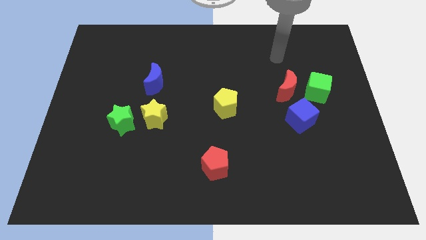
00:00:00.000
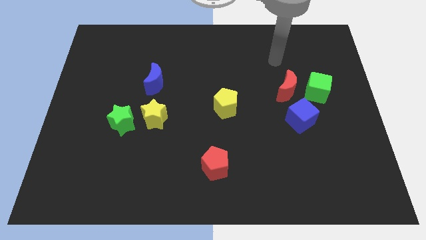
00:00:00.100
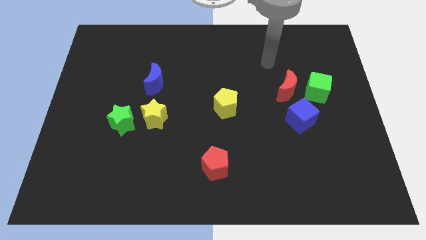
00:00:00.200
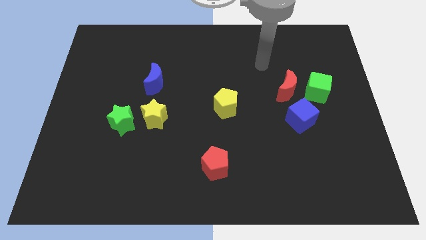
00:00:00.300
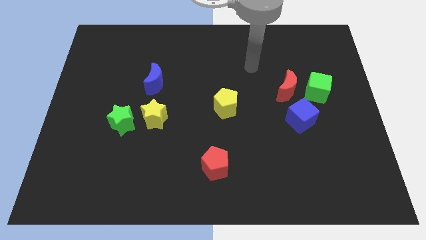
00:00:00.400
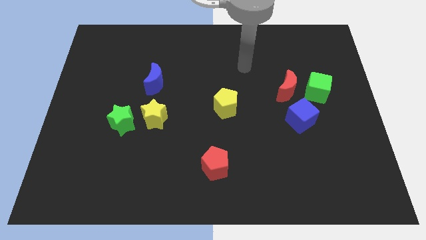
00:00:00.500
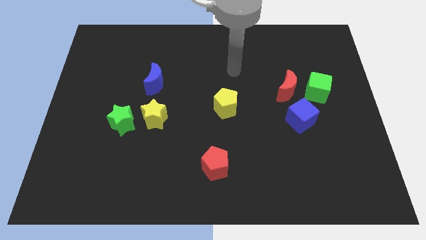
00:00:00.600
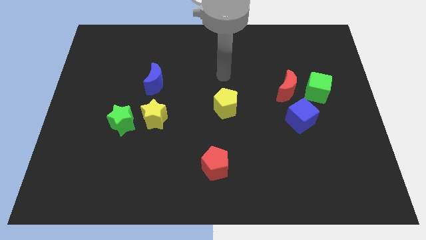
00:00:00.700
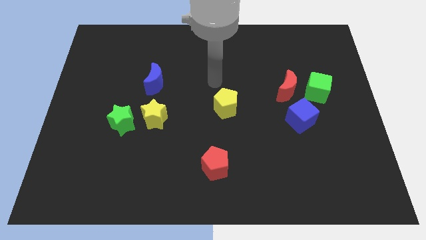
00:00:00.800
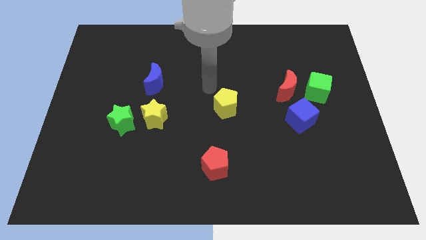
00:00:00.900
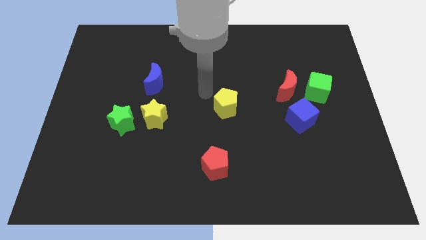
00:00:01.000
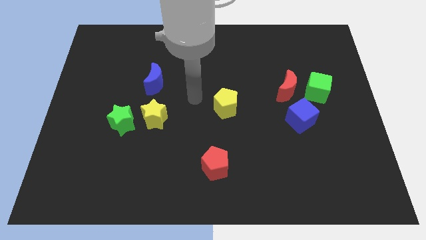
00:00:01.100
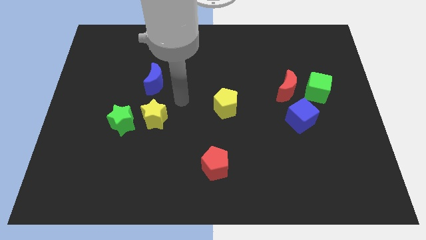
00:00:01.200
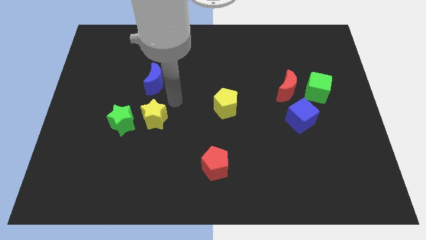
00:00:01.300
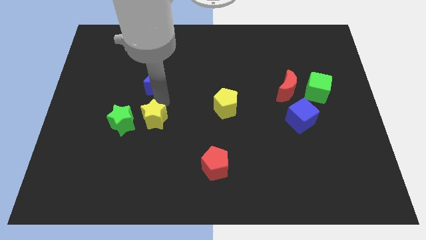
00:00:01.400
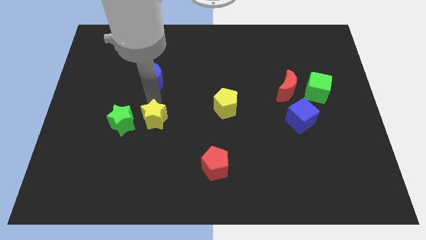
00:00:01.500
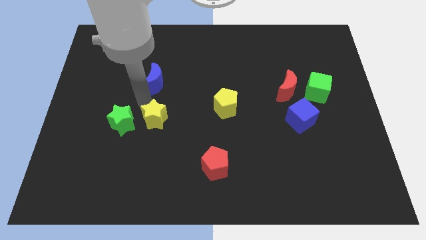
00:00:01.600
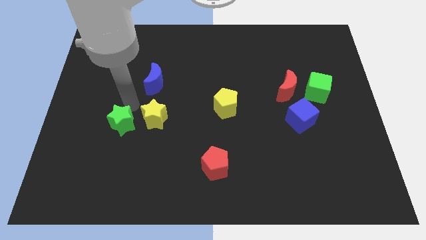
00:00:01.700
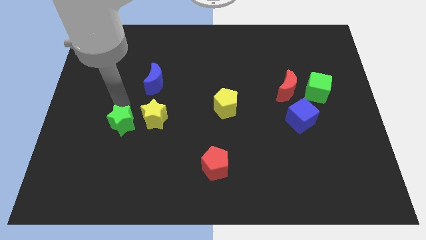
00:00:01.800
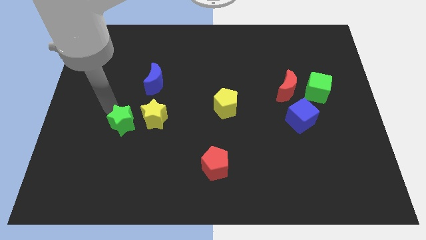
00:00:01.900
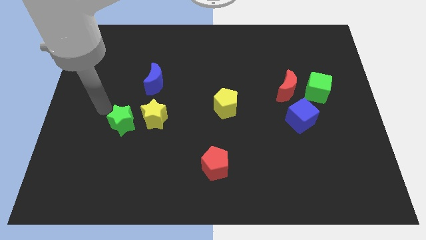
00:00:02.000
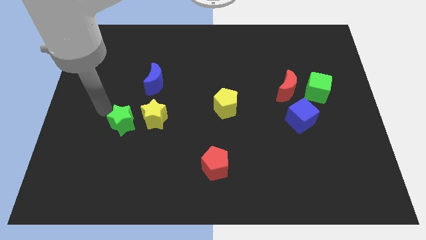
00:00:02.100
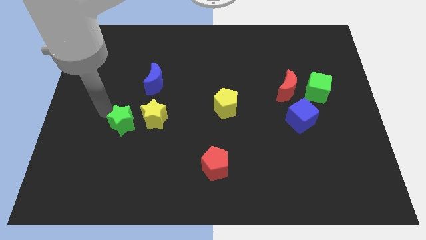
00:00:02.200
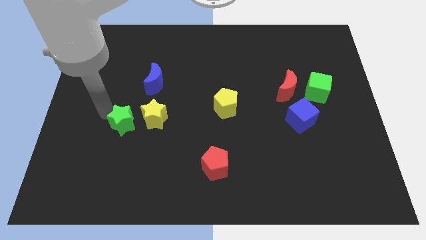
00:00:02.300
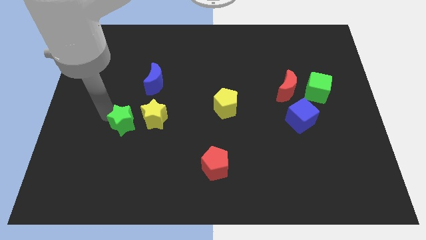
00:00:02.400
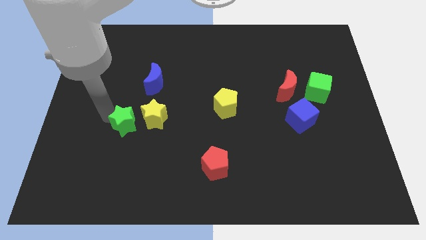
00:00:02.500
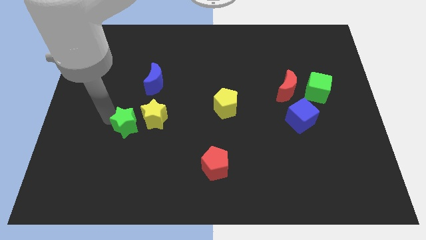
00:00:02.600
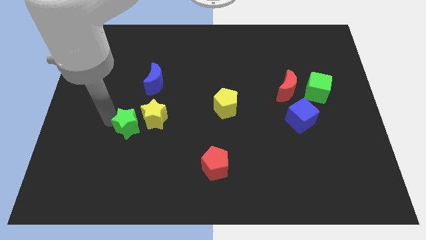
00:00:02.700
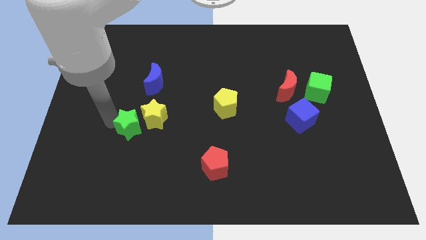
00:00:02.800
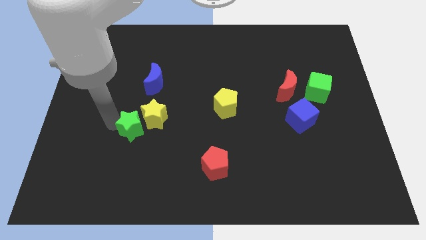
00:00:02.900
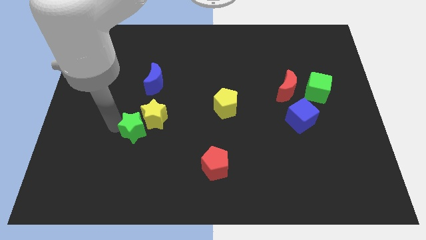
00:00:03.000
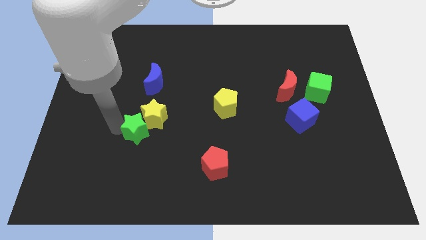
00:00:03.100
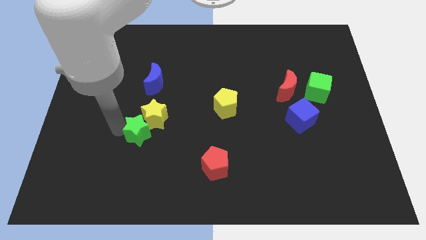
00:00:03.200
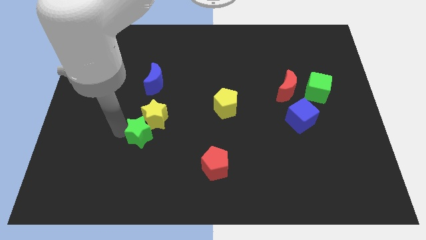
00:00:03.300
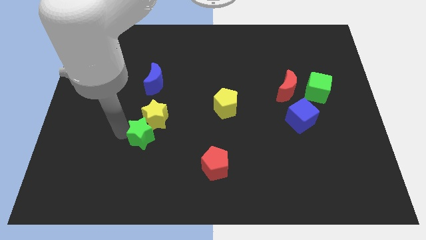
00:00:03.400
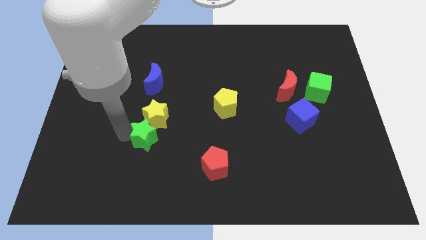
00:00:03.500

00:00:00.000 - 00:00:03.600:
move the green star downwards and right a bit

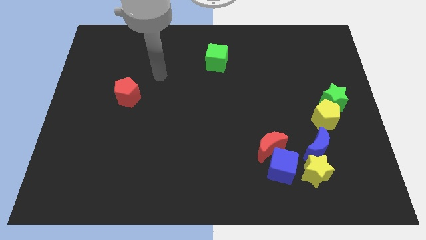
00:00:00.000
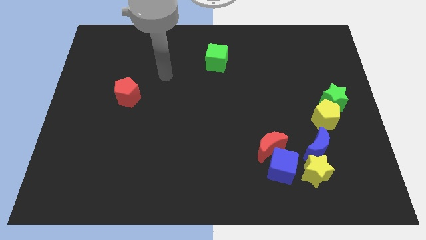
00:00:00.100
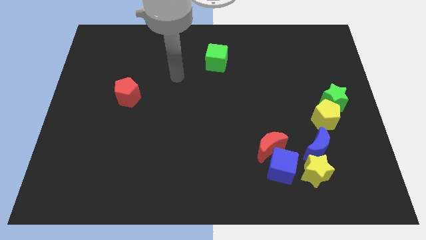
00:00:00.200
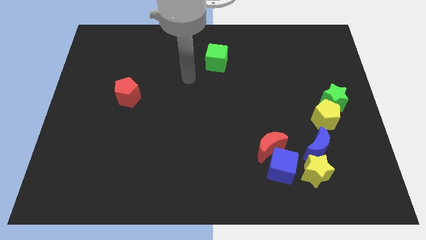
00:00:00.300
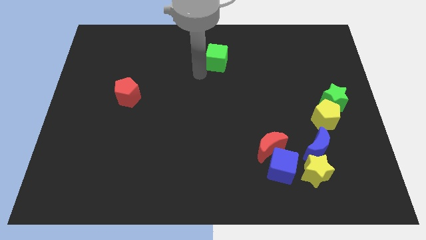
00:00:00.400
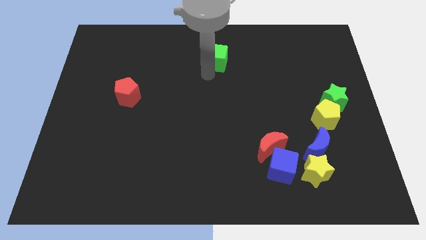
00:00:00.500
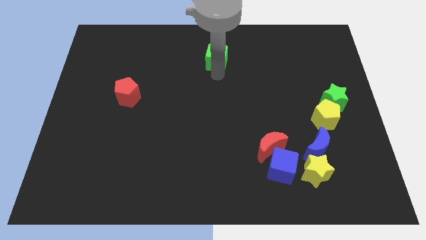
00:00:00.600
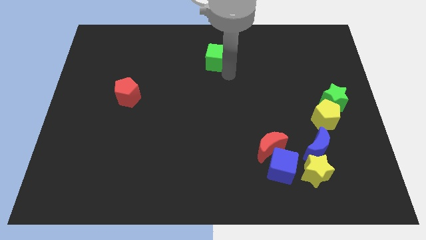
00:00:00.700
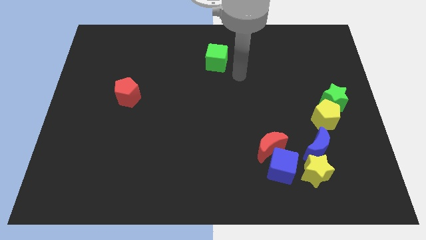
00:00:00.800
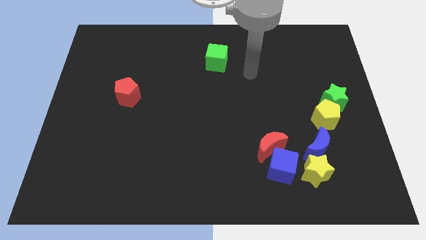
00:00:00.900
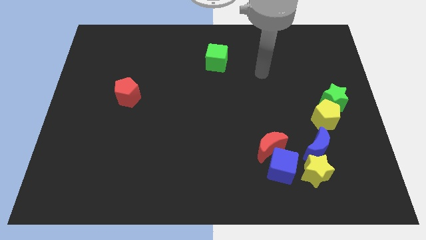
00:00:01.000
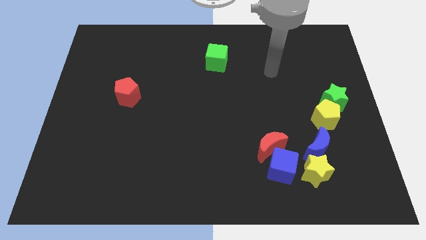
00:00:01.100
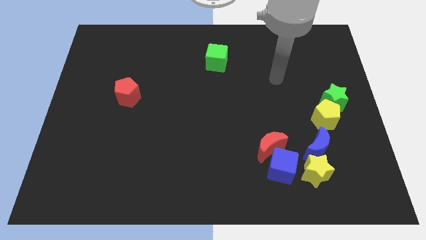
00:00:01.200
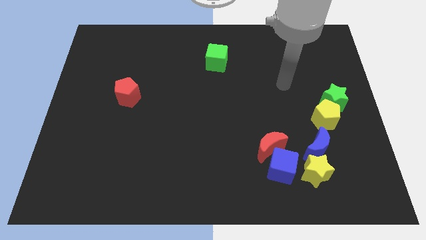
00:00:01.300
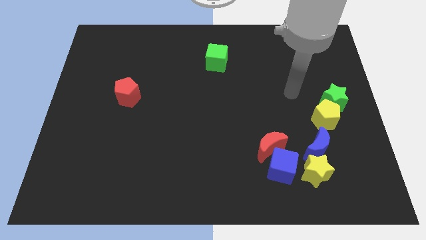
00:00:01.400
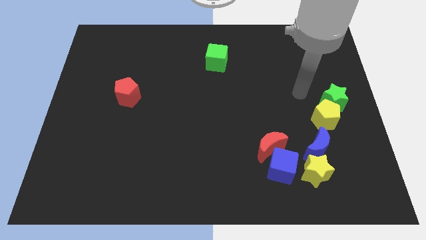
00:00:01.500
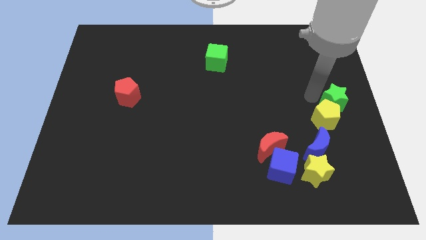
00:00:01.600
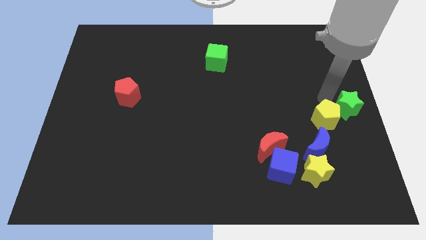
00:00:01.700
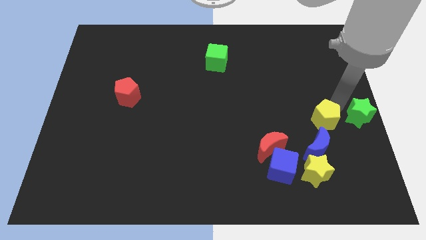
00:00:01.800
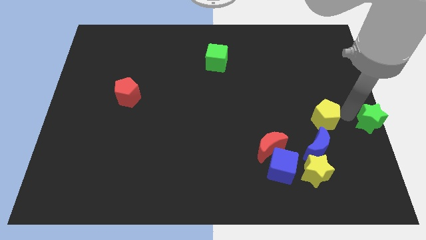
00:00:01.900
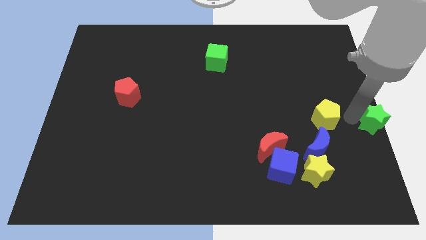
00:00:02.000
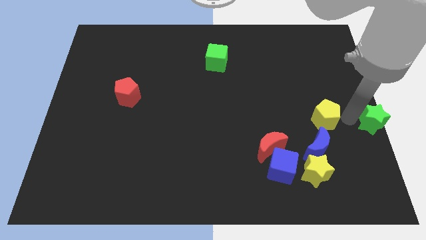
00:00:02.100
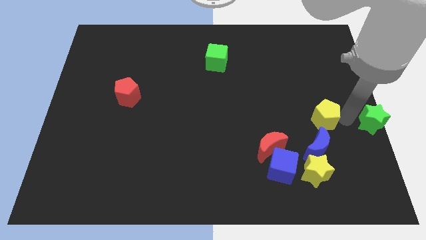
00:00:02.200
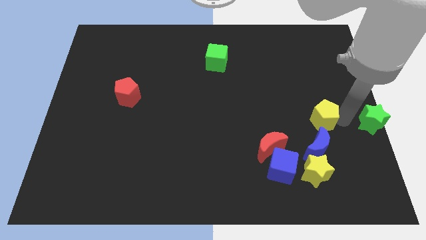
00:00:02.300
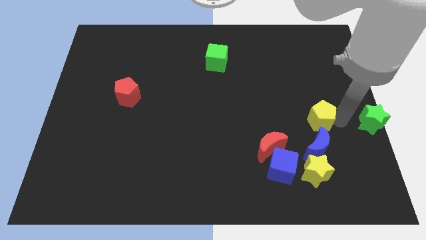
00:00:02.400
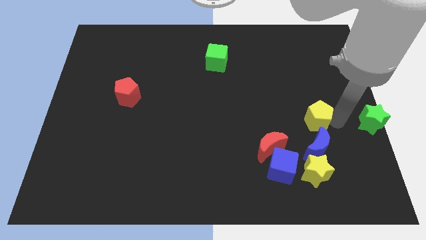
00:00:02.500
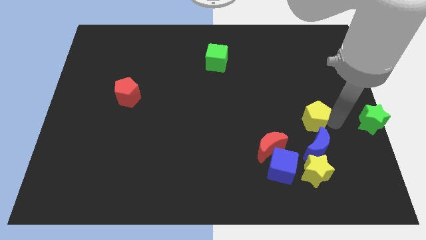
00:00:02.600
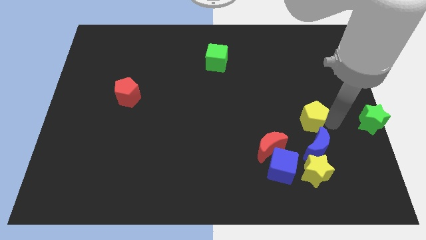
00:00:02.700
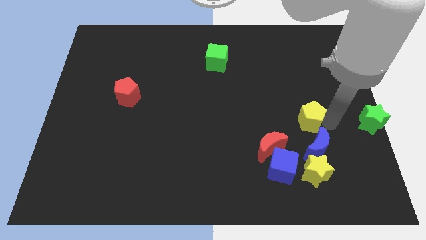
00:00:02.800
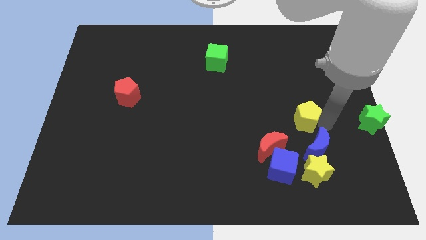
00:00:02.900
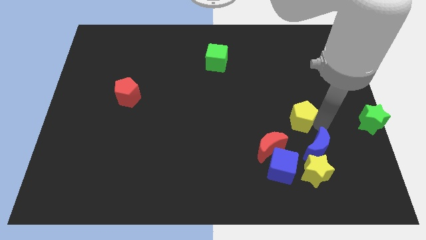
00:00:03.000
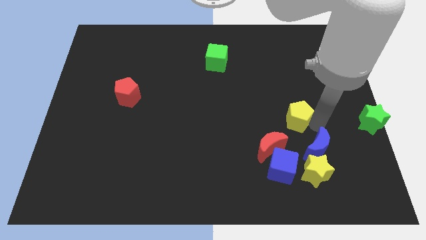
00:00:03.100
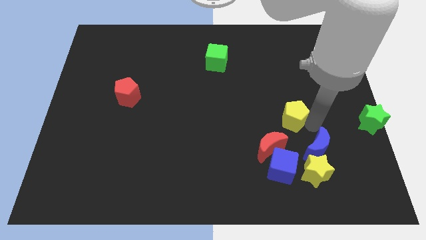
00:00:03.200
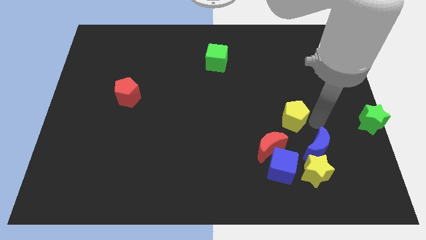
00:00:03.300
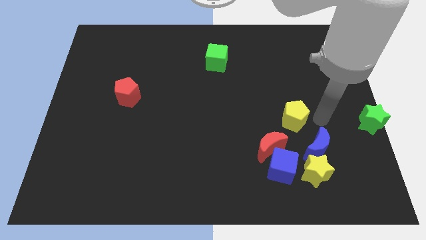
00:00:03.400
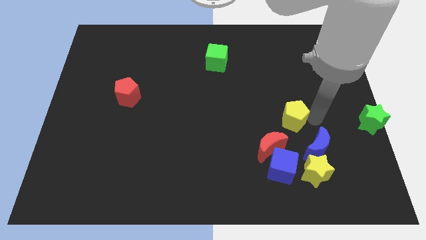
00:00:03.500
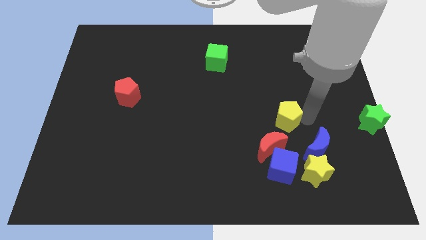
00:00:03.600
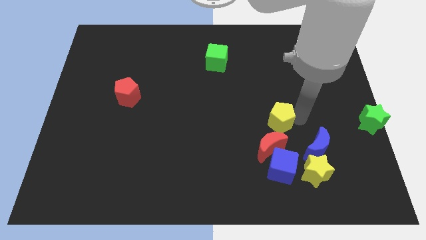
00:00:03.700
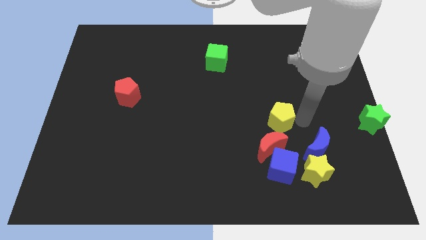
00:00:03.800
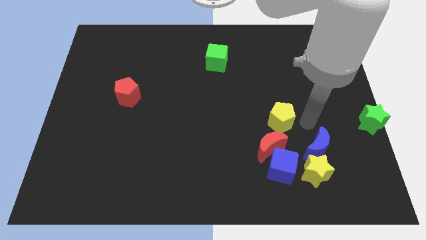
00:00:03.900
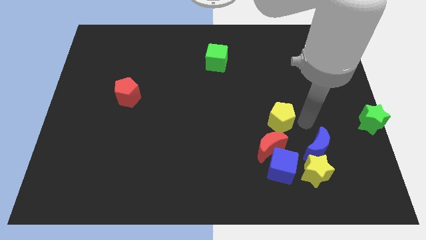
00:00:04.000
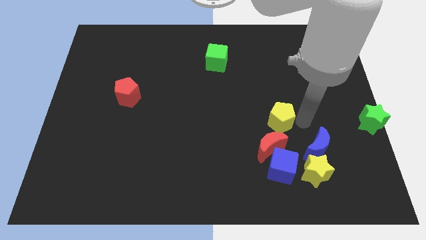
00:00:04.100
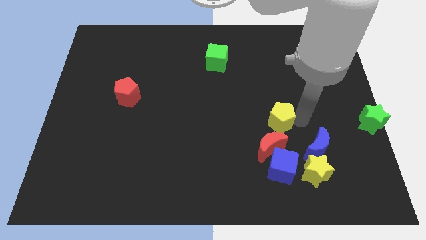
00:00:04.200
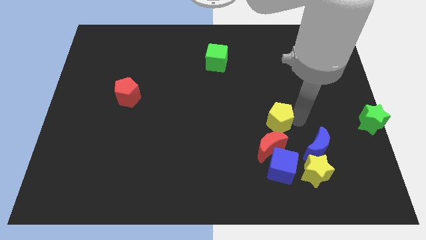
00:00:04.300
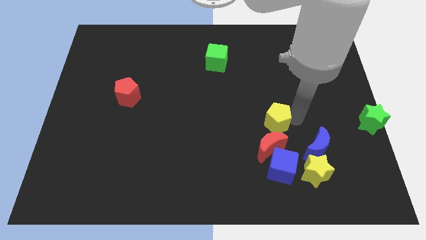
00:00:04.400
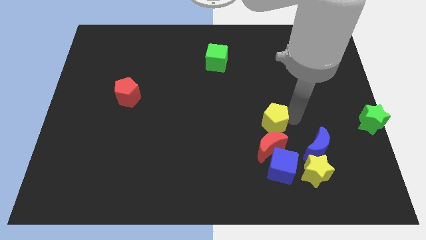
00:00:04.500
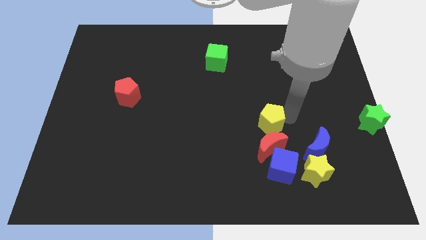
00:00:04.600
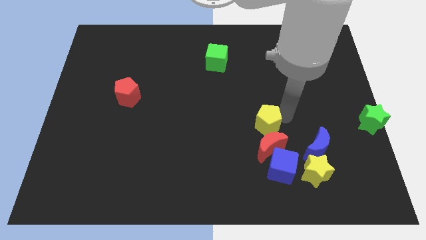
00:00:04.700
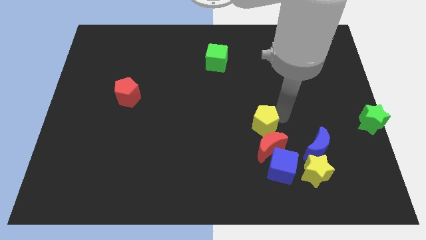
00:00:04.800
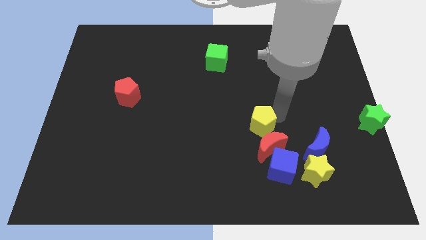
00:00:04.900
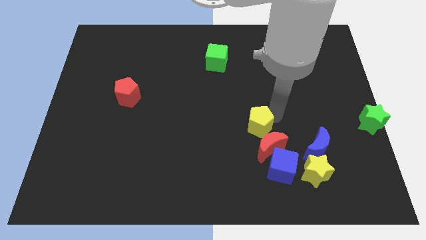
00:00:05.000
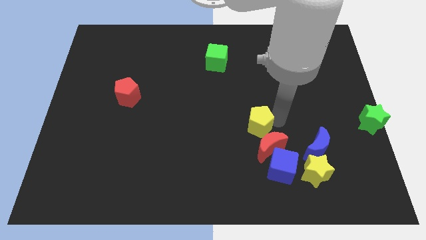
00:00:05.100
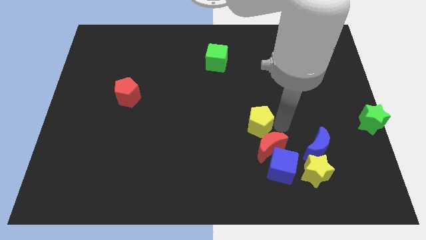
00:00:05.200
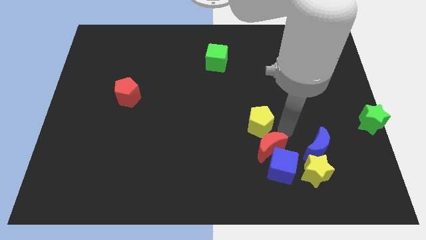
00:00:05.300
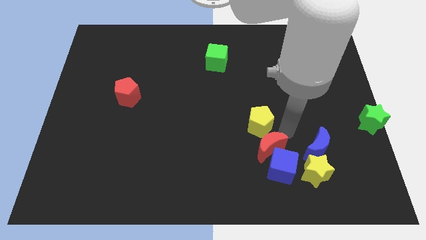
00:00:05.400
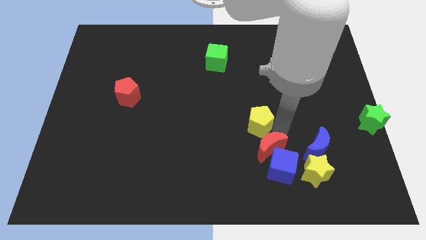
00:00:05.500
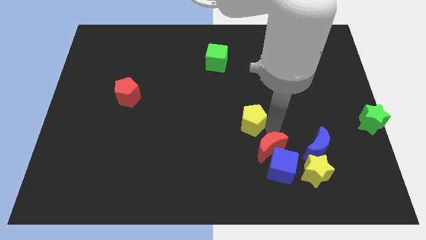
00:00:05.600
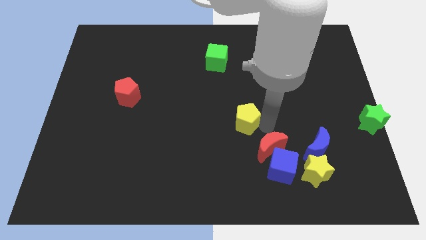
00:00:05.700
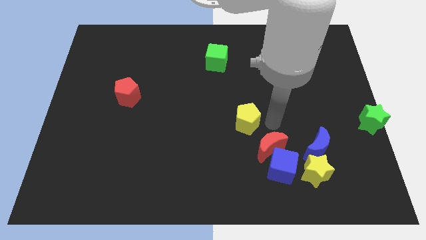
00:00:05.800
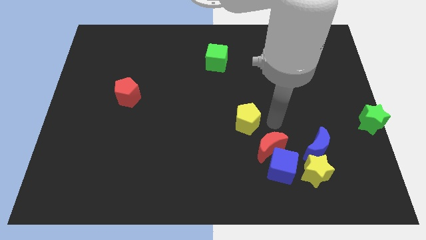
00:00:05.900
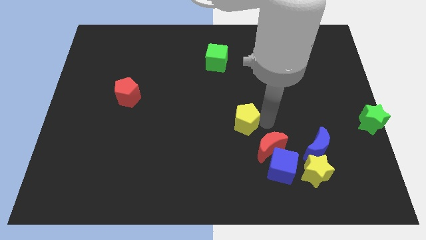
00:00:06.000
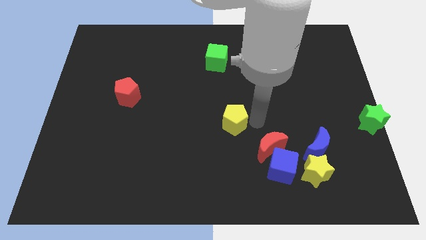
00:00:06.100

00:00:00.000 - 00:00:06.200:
slide the yellow pentagon left
